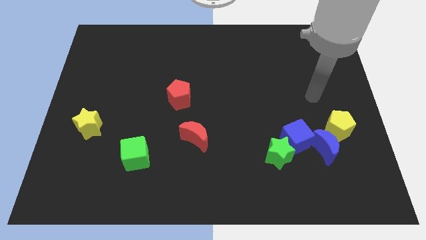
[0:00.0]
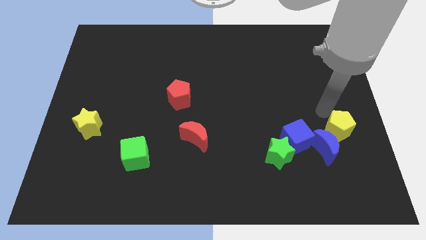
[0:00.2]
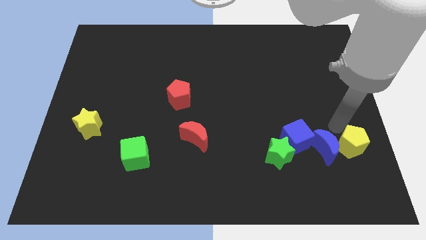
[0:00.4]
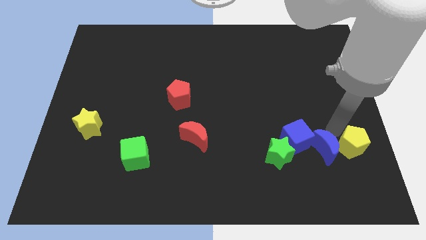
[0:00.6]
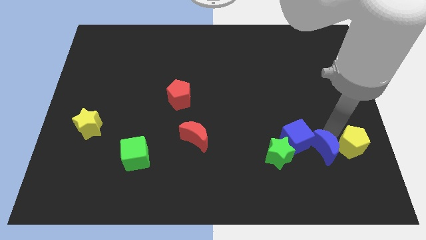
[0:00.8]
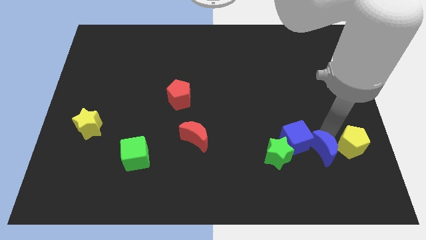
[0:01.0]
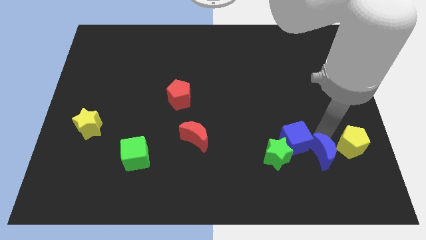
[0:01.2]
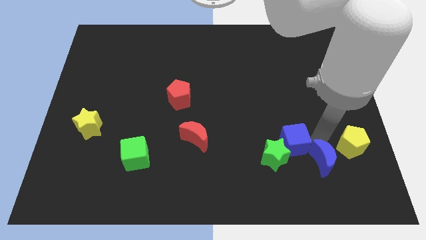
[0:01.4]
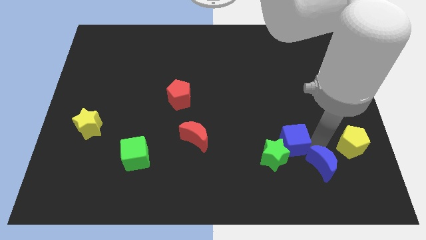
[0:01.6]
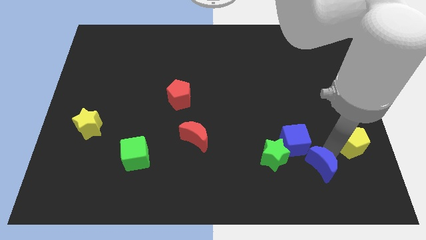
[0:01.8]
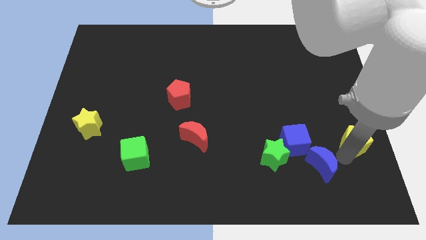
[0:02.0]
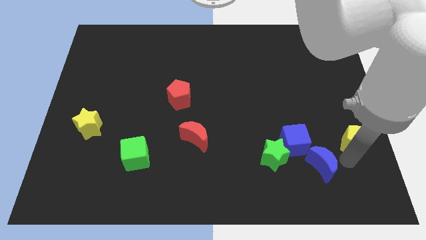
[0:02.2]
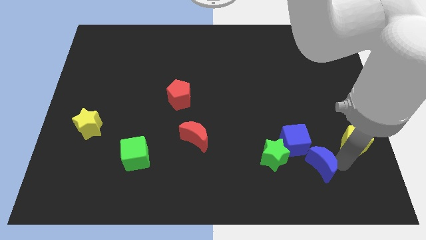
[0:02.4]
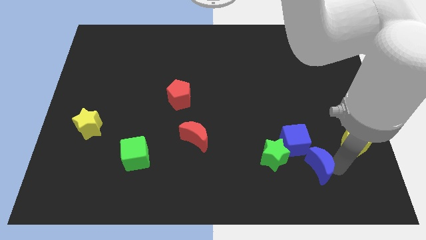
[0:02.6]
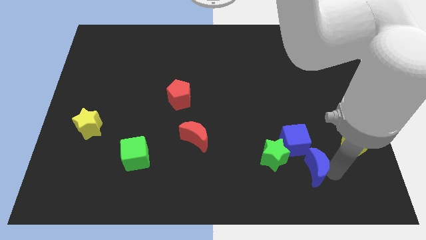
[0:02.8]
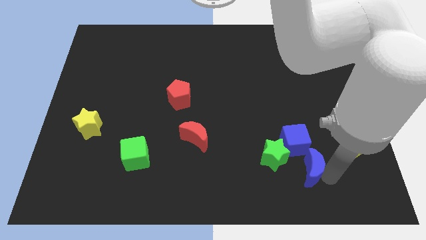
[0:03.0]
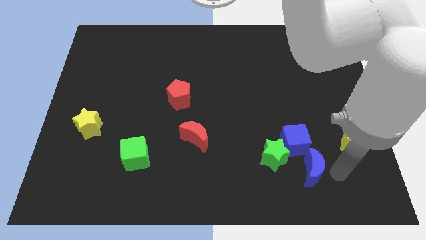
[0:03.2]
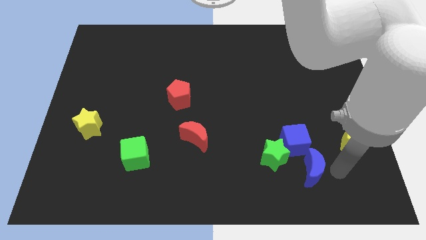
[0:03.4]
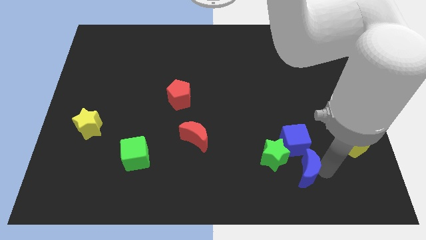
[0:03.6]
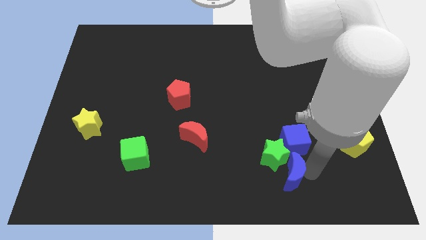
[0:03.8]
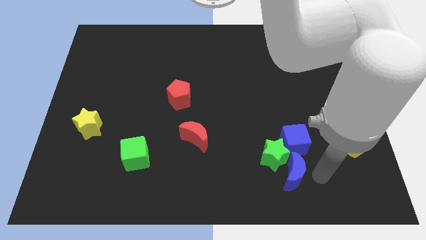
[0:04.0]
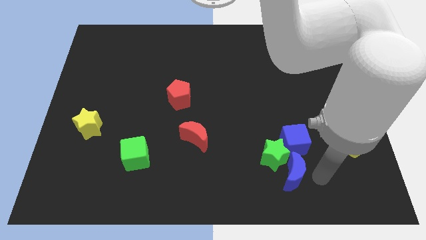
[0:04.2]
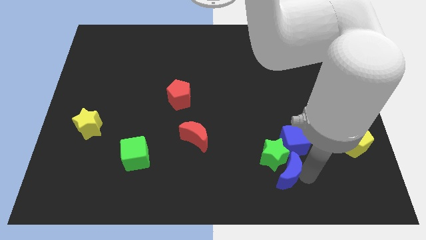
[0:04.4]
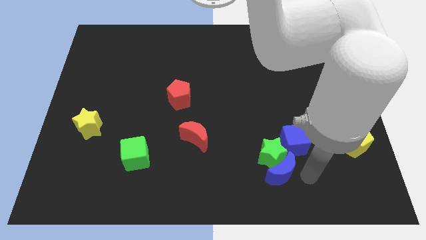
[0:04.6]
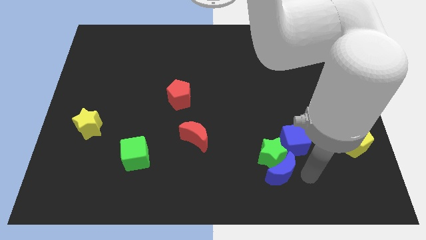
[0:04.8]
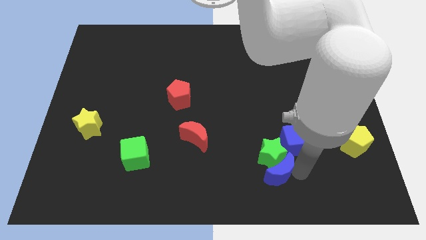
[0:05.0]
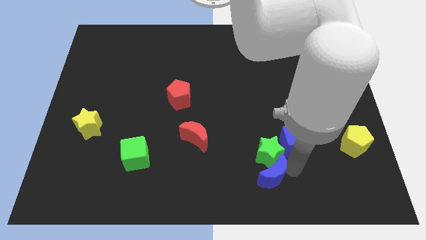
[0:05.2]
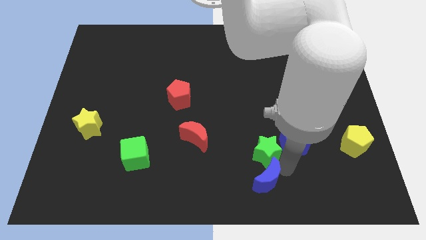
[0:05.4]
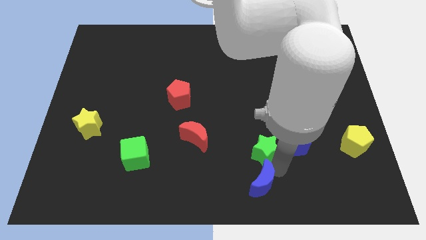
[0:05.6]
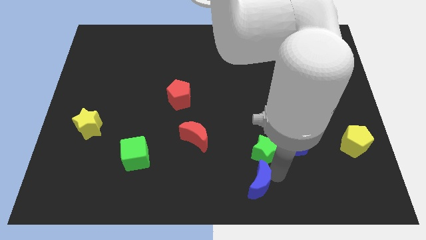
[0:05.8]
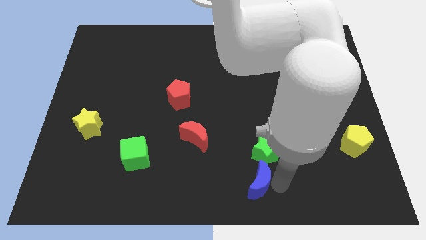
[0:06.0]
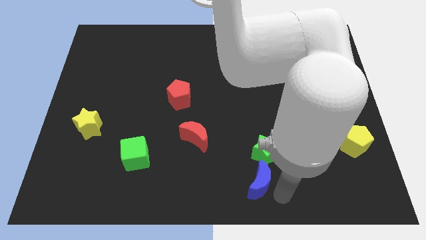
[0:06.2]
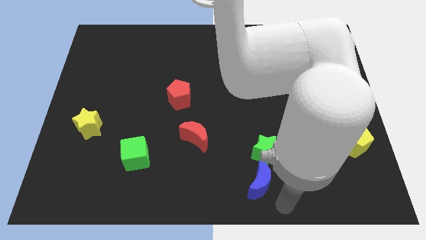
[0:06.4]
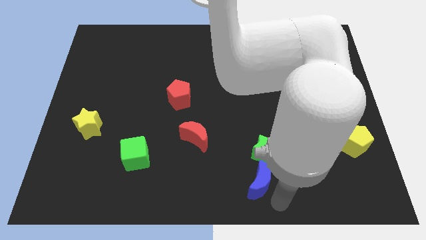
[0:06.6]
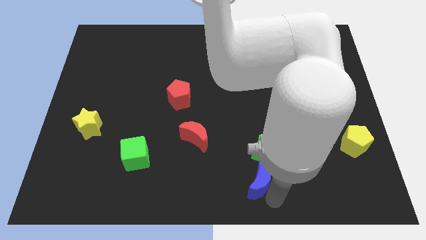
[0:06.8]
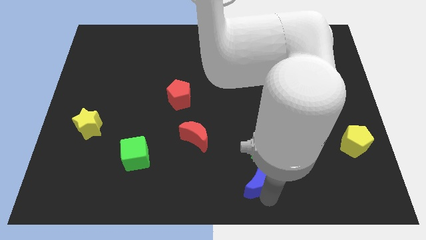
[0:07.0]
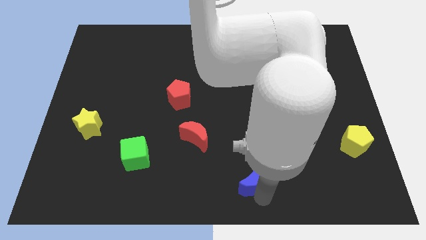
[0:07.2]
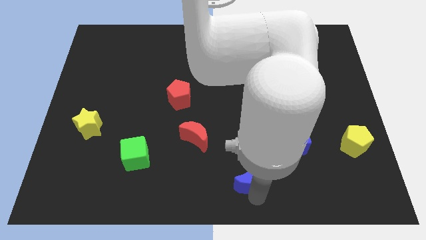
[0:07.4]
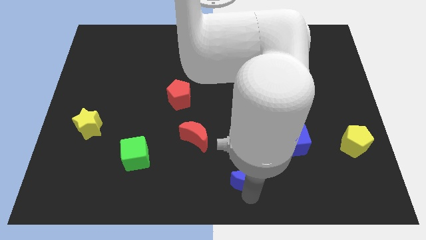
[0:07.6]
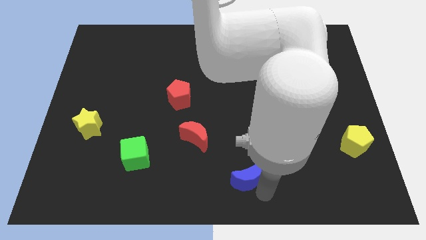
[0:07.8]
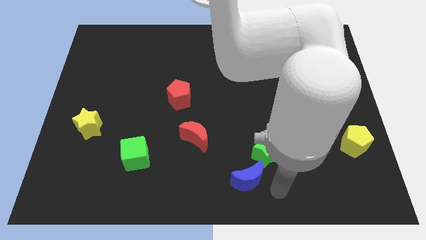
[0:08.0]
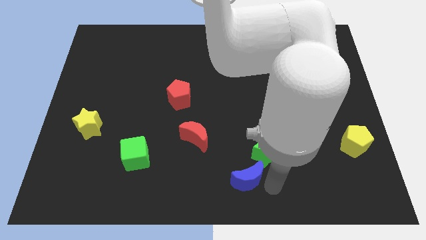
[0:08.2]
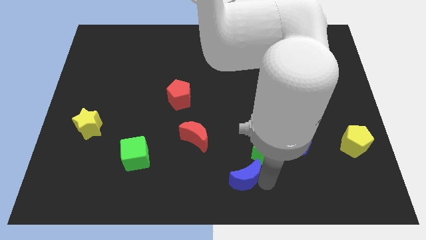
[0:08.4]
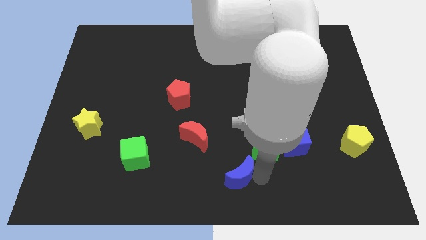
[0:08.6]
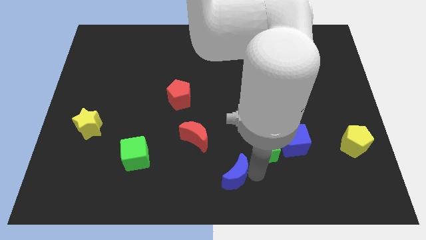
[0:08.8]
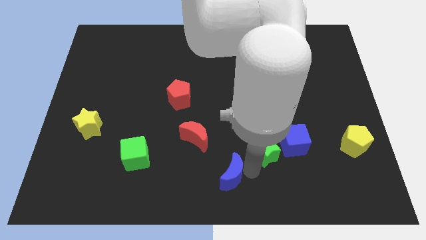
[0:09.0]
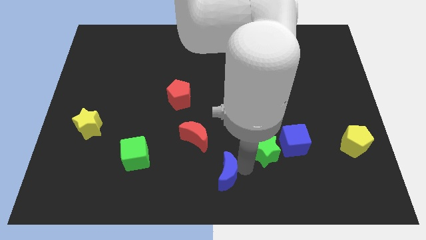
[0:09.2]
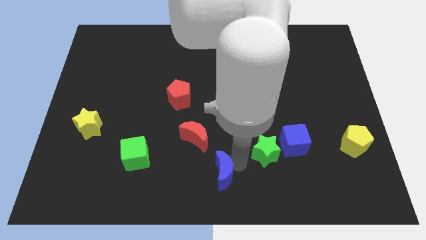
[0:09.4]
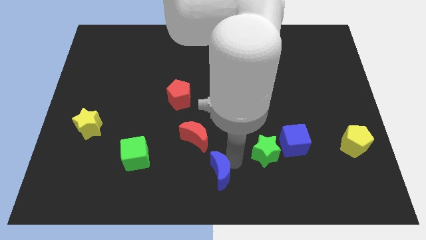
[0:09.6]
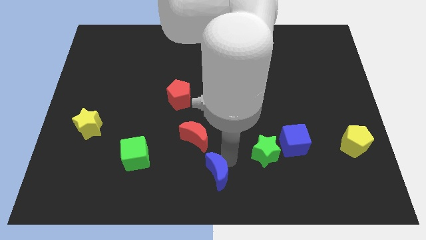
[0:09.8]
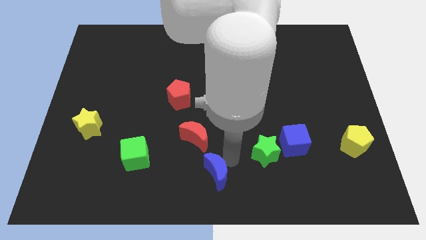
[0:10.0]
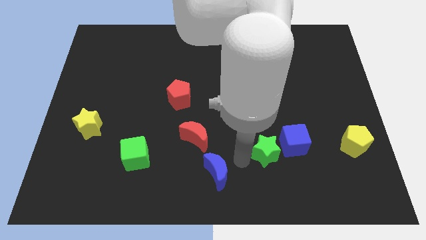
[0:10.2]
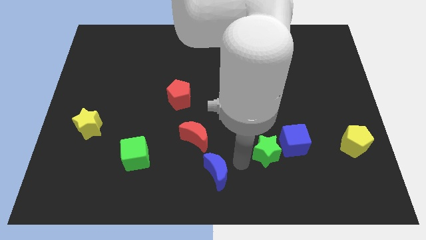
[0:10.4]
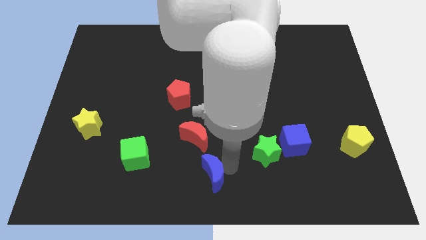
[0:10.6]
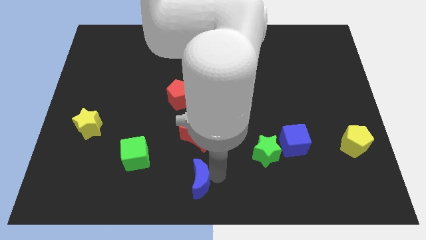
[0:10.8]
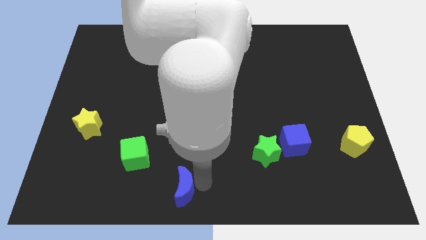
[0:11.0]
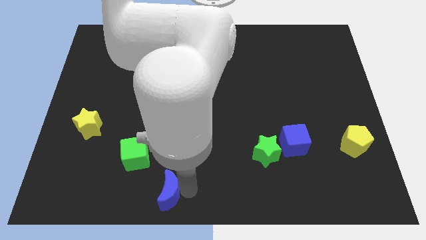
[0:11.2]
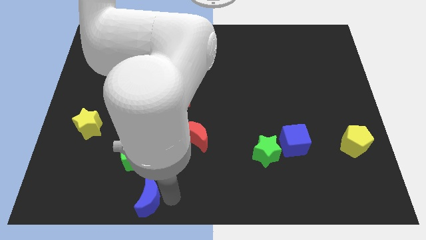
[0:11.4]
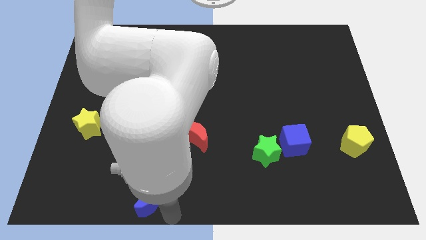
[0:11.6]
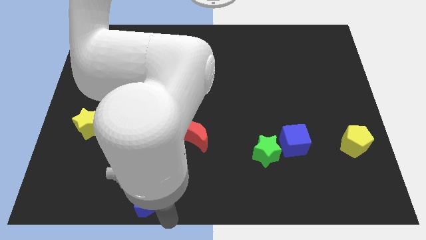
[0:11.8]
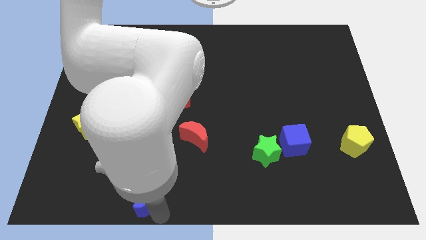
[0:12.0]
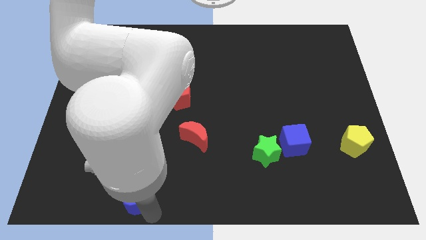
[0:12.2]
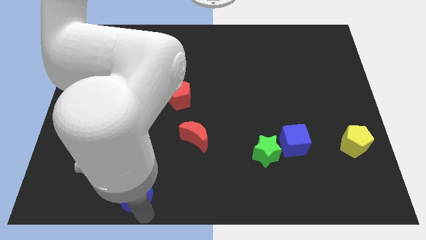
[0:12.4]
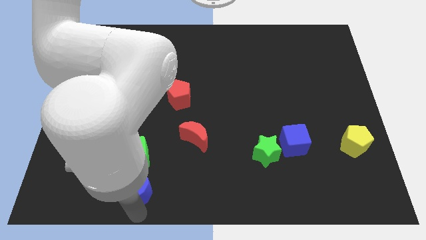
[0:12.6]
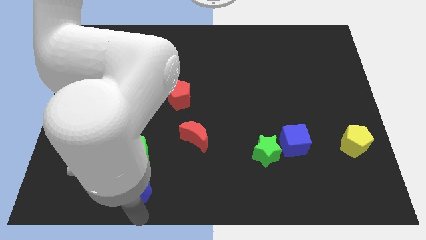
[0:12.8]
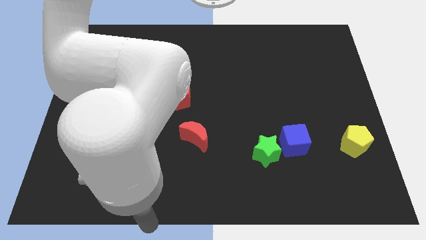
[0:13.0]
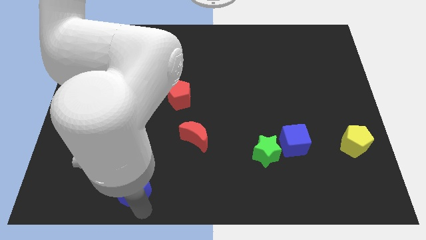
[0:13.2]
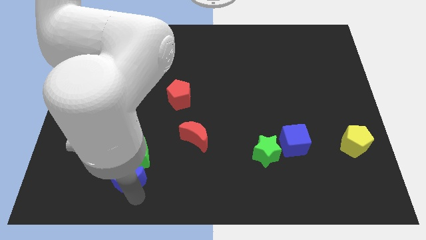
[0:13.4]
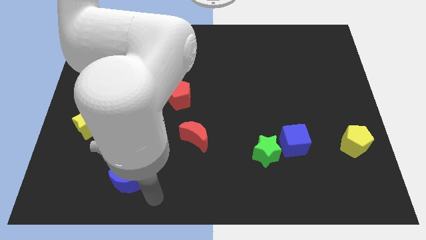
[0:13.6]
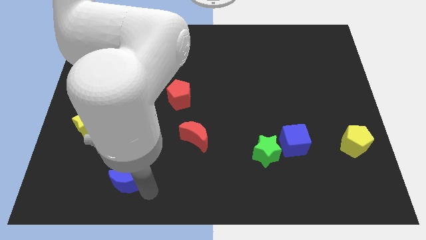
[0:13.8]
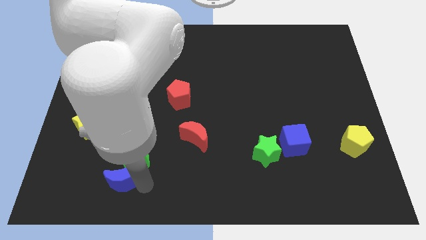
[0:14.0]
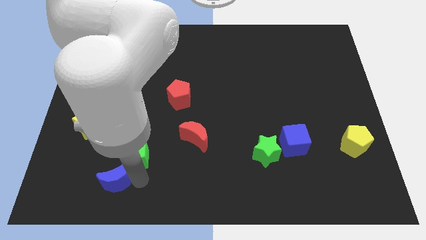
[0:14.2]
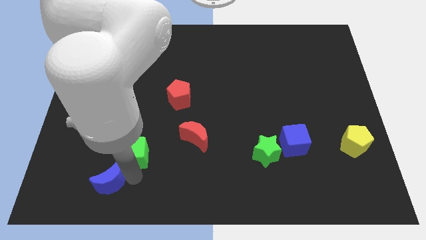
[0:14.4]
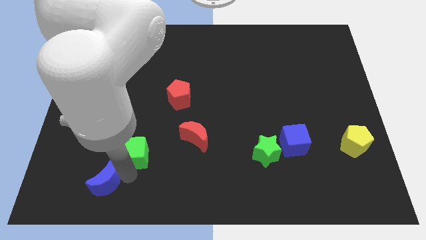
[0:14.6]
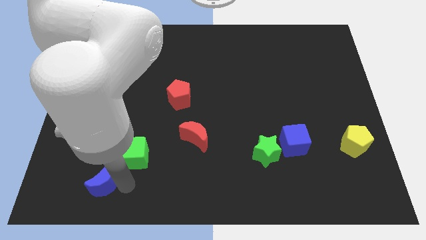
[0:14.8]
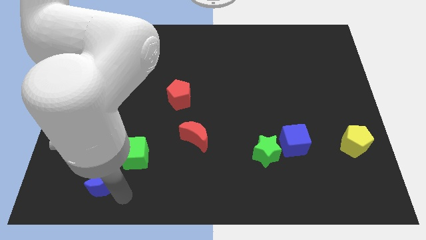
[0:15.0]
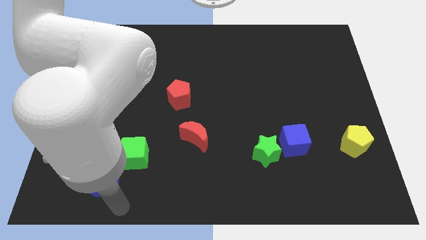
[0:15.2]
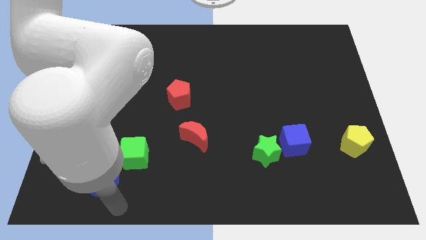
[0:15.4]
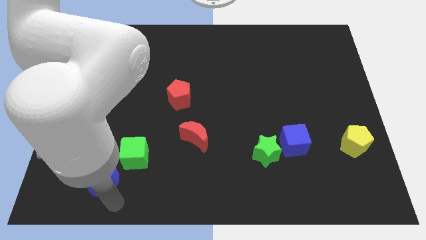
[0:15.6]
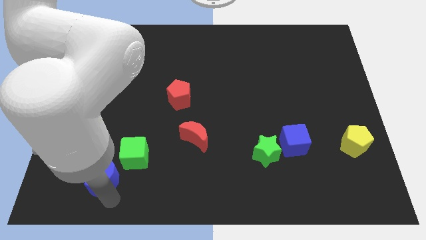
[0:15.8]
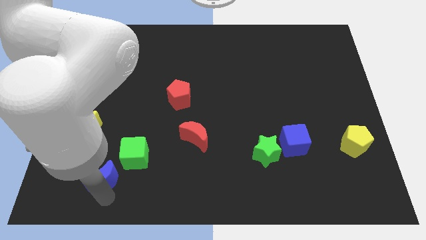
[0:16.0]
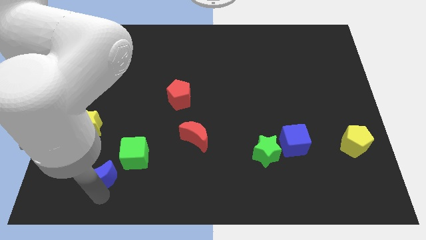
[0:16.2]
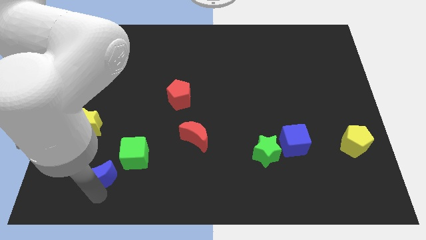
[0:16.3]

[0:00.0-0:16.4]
move the blue moon to the bottom of the yellow star
